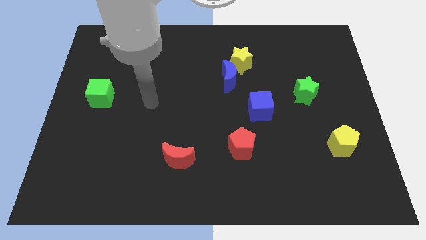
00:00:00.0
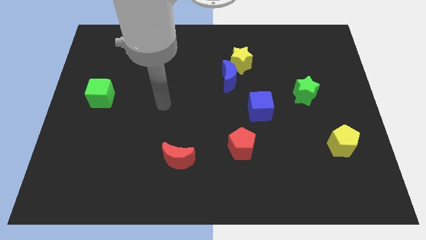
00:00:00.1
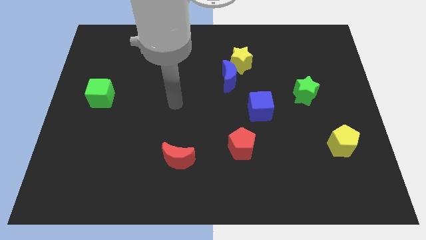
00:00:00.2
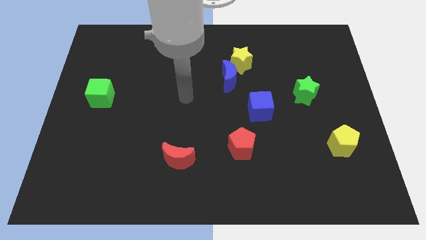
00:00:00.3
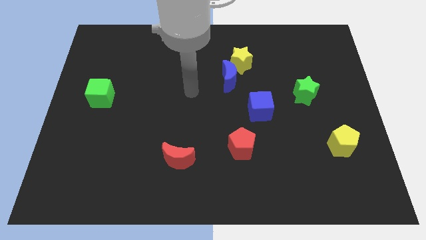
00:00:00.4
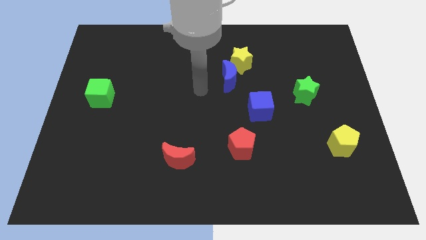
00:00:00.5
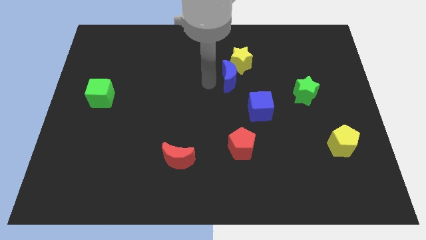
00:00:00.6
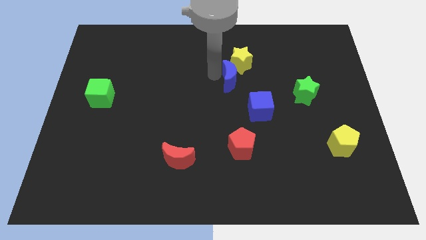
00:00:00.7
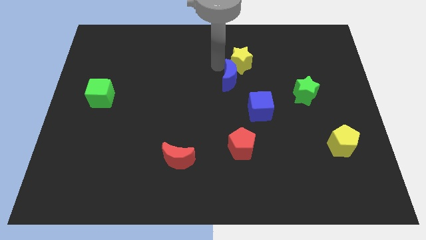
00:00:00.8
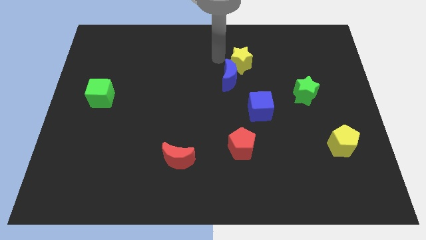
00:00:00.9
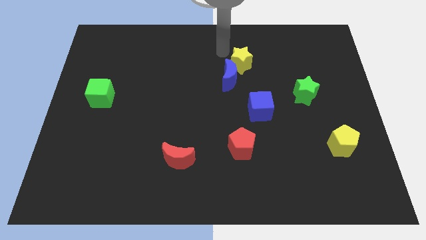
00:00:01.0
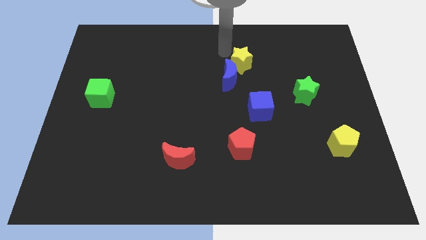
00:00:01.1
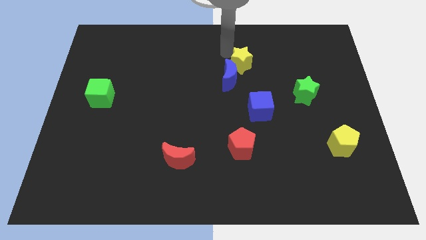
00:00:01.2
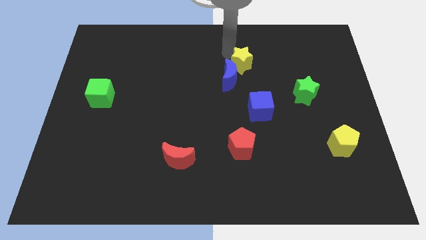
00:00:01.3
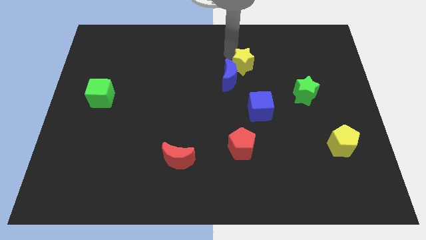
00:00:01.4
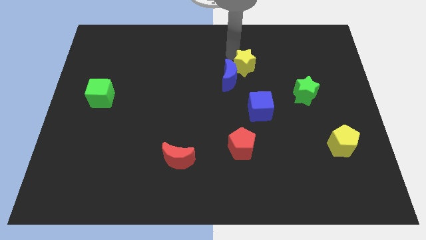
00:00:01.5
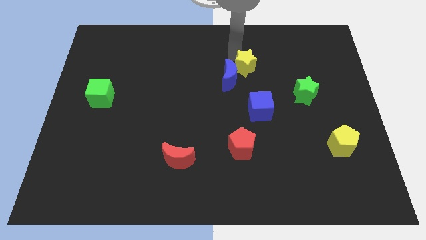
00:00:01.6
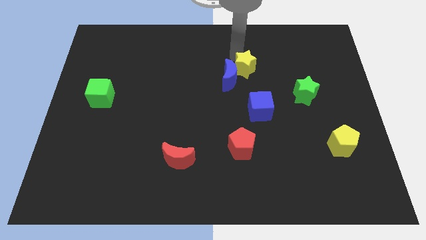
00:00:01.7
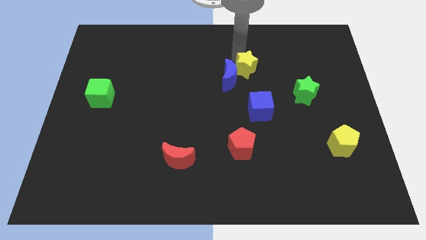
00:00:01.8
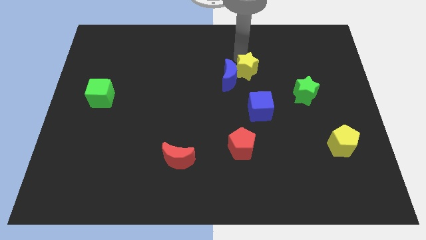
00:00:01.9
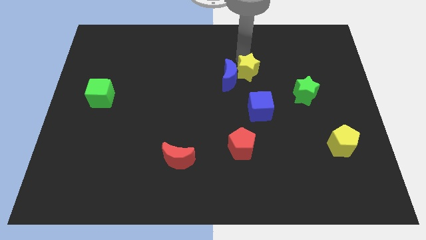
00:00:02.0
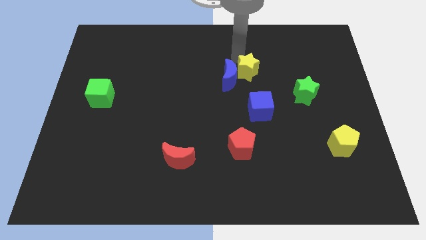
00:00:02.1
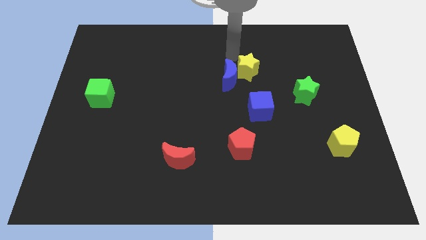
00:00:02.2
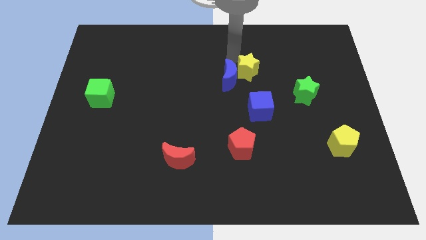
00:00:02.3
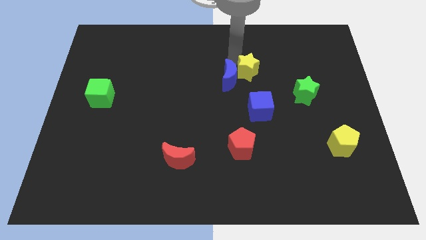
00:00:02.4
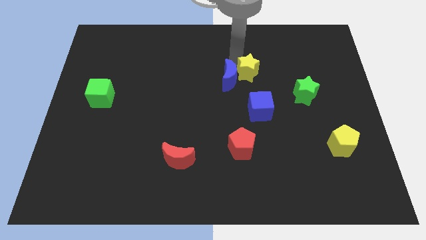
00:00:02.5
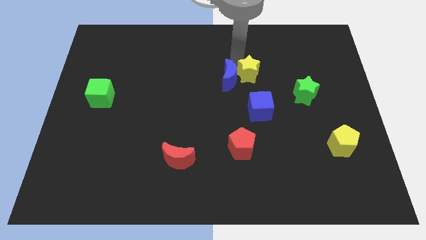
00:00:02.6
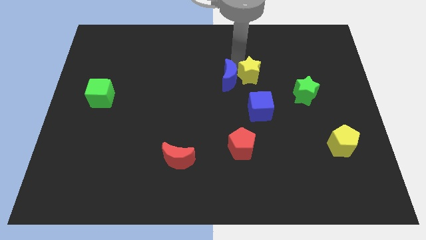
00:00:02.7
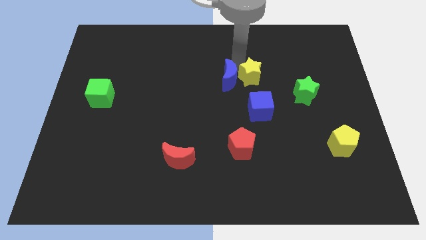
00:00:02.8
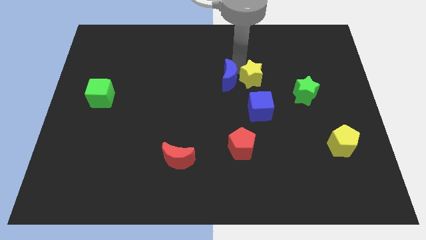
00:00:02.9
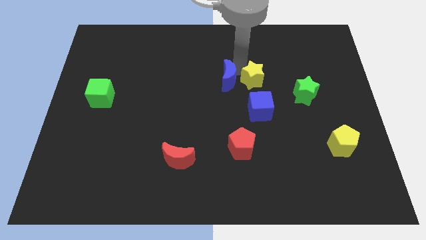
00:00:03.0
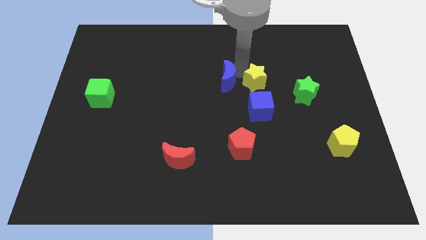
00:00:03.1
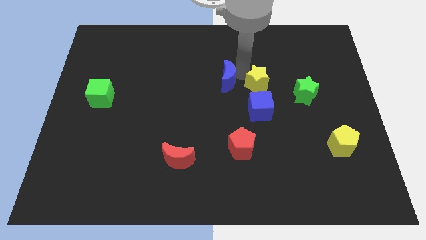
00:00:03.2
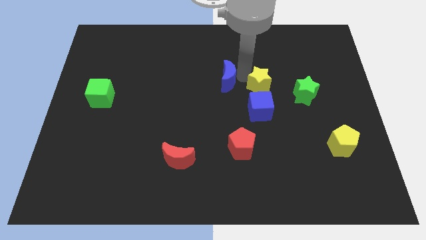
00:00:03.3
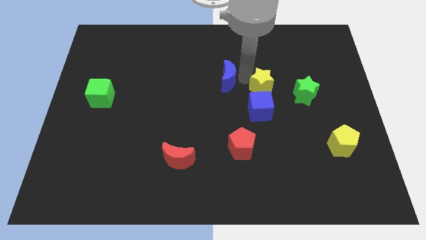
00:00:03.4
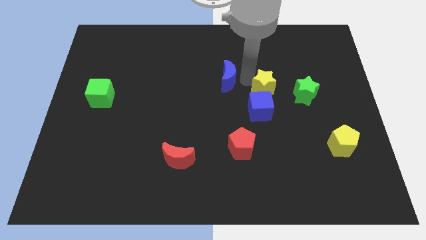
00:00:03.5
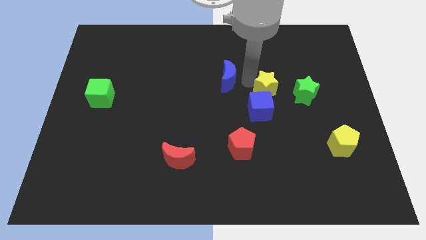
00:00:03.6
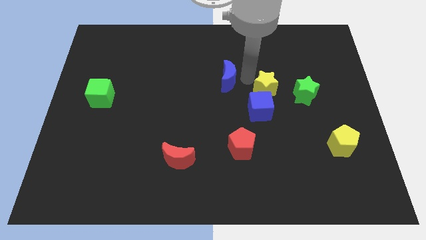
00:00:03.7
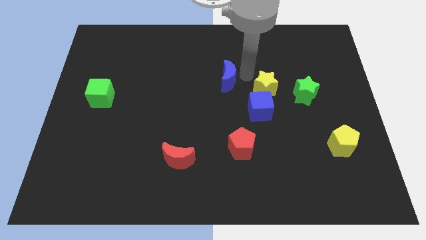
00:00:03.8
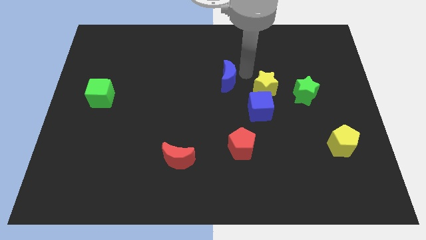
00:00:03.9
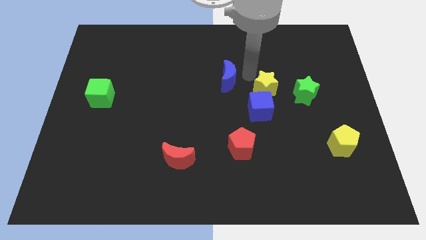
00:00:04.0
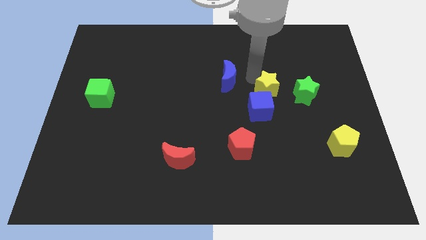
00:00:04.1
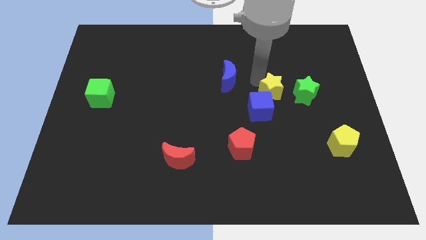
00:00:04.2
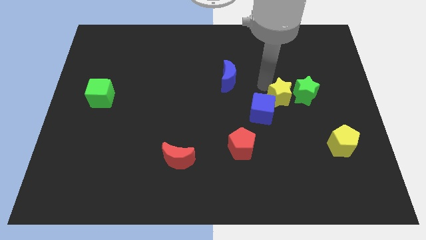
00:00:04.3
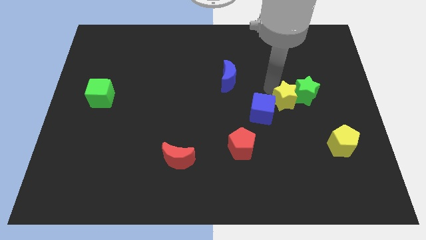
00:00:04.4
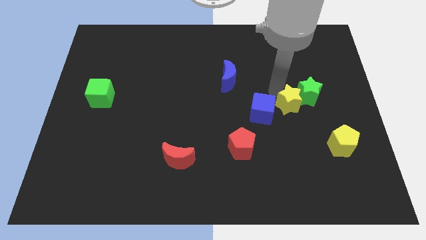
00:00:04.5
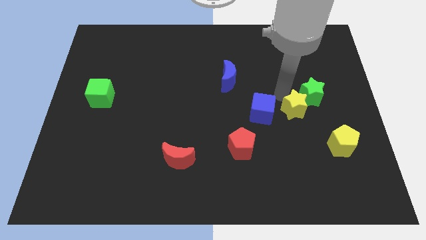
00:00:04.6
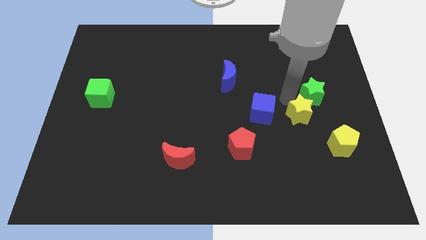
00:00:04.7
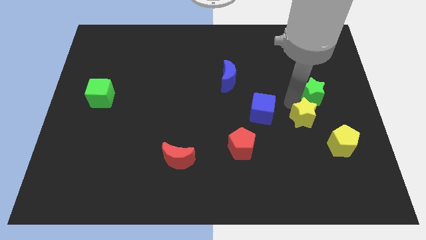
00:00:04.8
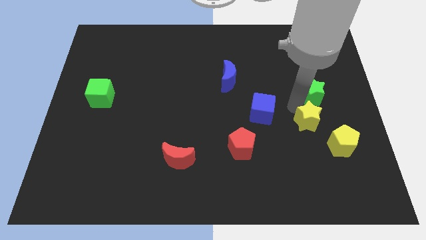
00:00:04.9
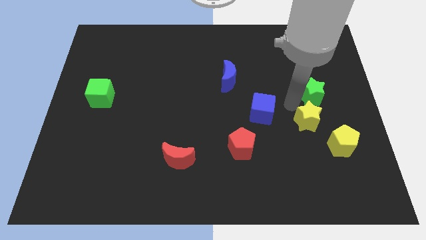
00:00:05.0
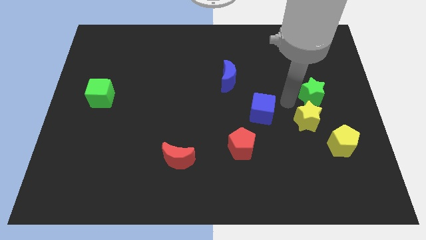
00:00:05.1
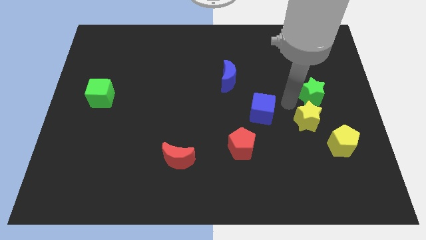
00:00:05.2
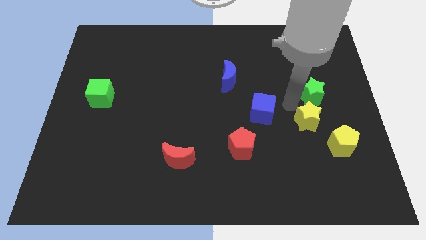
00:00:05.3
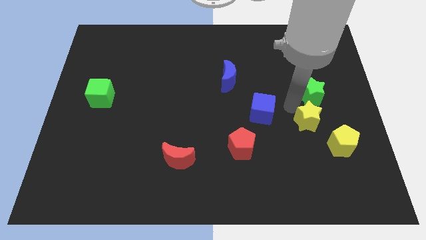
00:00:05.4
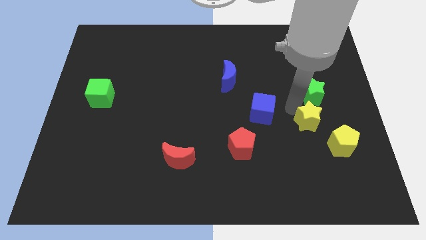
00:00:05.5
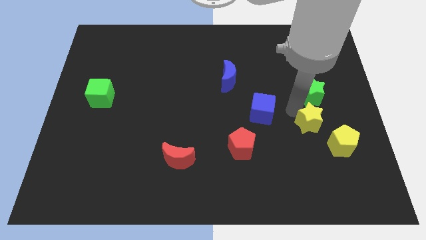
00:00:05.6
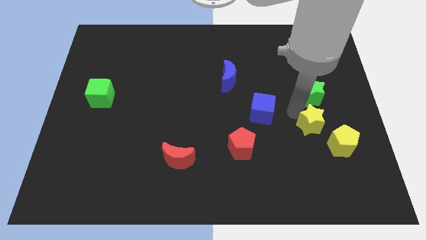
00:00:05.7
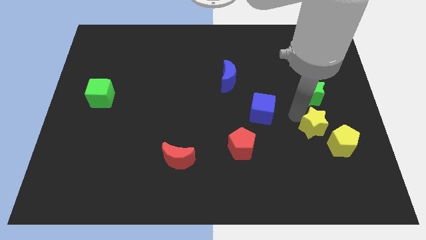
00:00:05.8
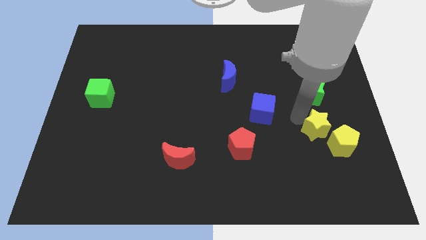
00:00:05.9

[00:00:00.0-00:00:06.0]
push the yellow star close to the yellow pentagon
